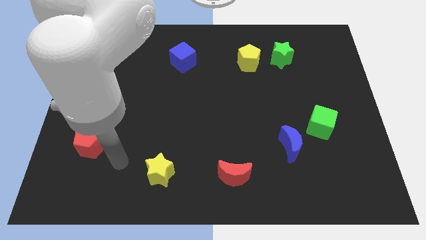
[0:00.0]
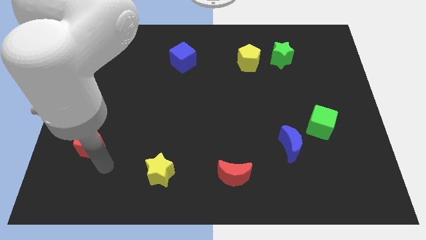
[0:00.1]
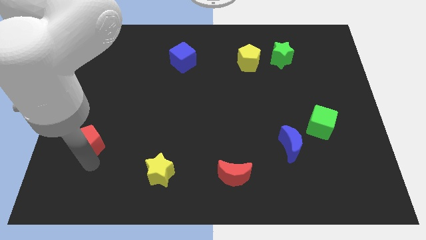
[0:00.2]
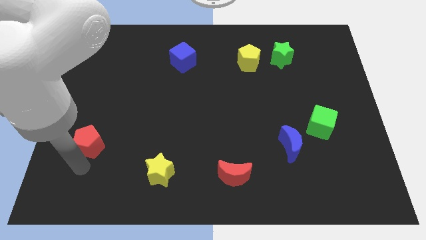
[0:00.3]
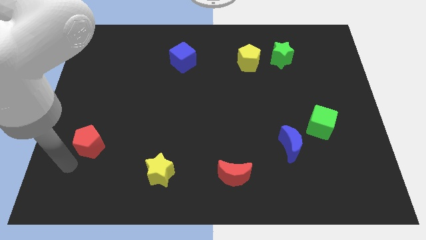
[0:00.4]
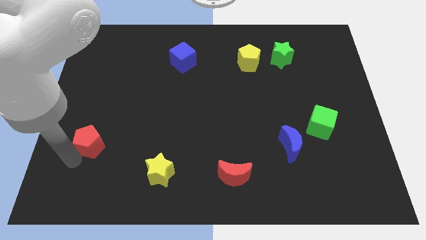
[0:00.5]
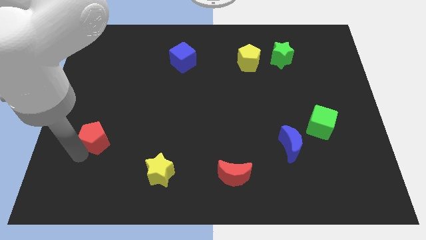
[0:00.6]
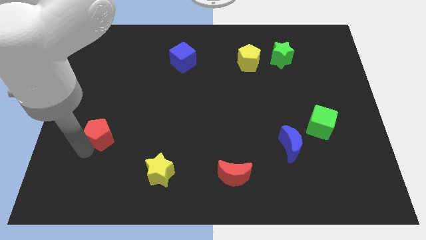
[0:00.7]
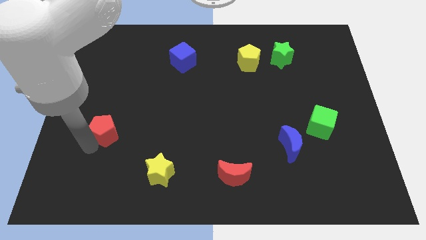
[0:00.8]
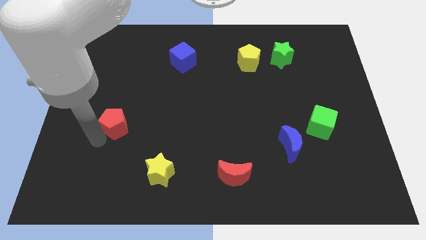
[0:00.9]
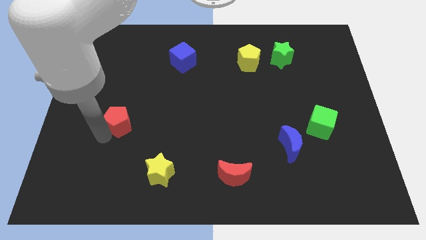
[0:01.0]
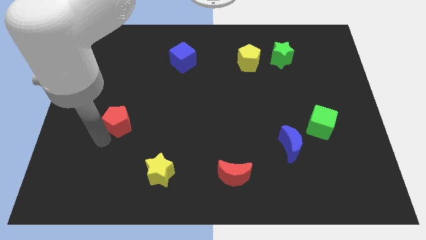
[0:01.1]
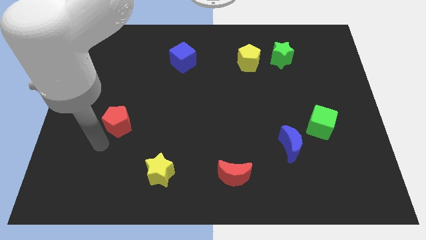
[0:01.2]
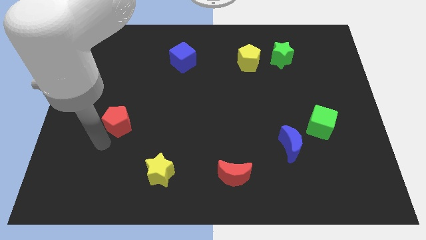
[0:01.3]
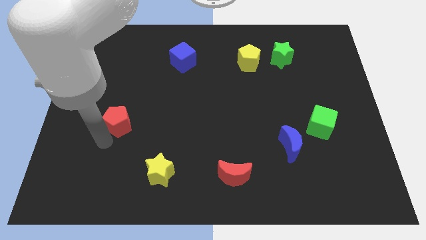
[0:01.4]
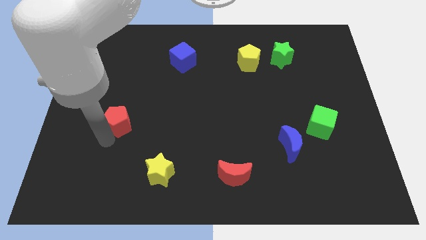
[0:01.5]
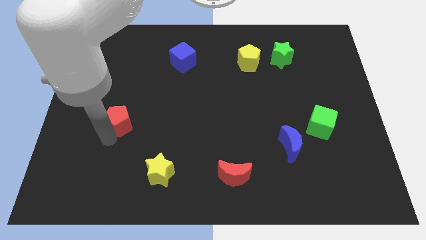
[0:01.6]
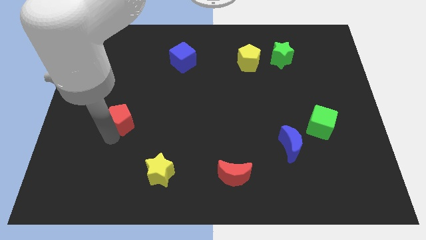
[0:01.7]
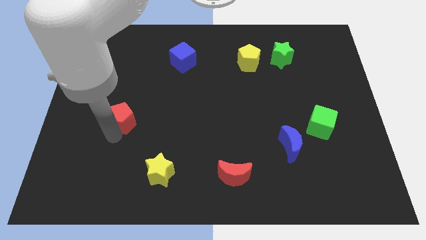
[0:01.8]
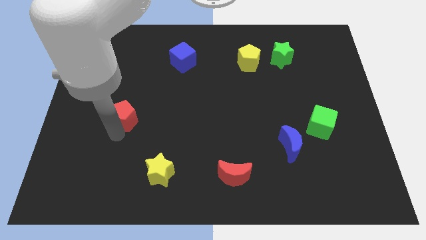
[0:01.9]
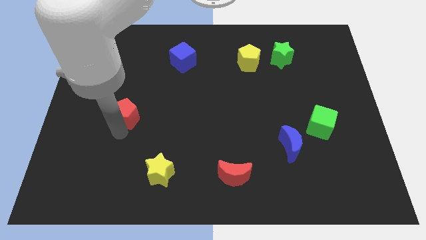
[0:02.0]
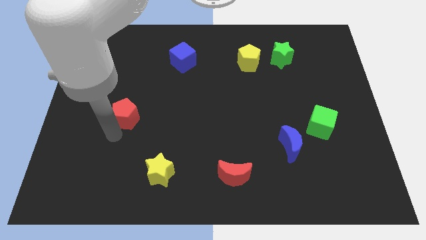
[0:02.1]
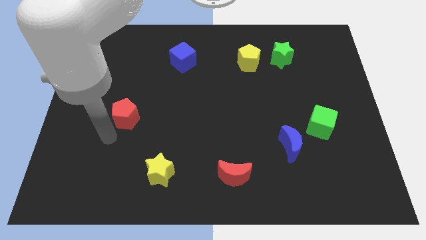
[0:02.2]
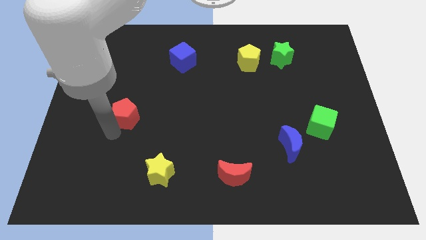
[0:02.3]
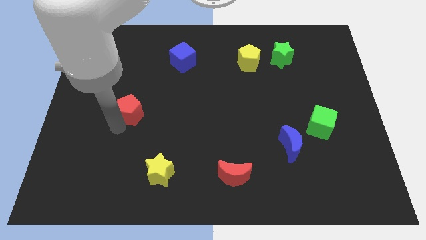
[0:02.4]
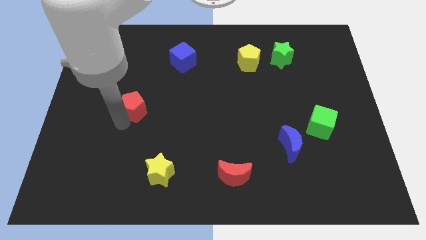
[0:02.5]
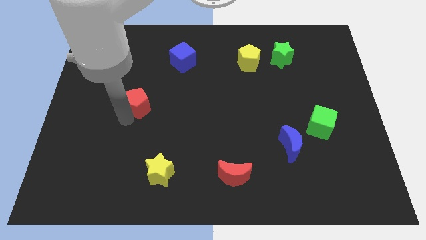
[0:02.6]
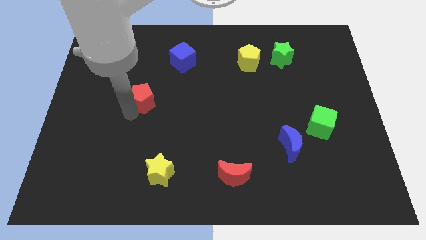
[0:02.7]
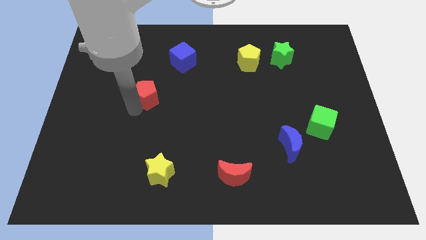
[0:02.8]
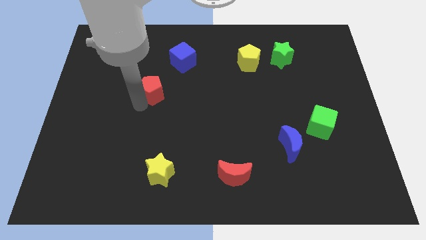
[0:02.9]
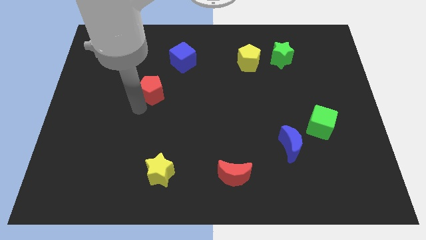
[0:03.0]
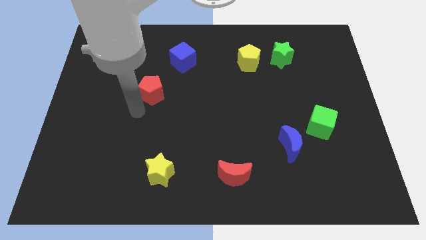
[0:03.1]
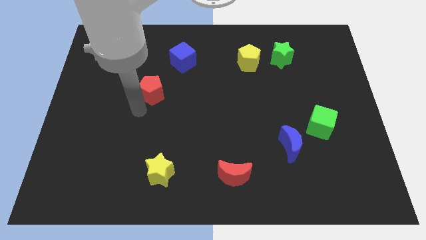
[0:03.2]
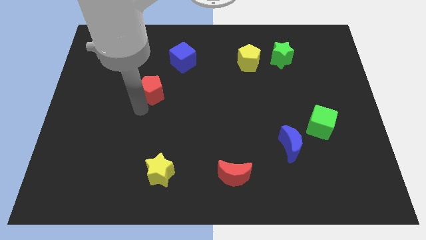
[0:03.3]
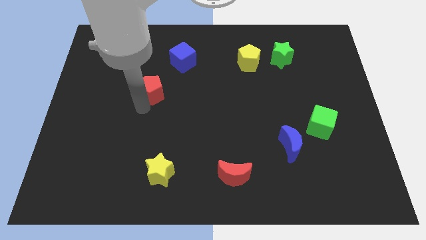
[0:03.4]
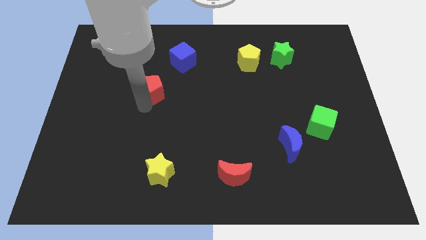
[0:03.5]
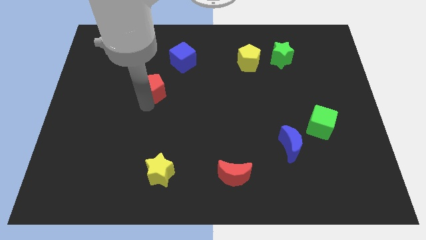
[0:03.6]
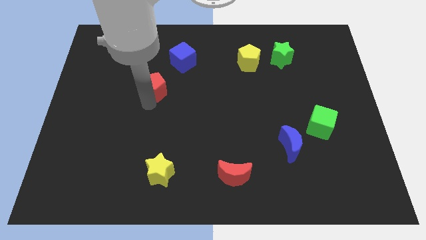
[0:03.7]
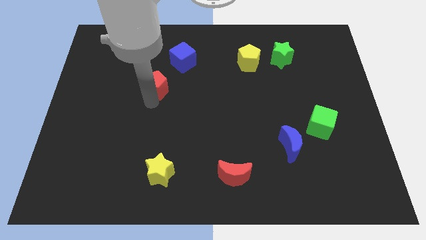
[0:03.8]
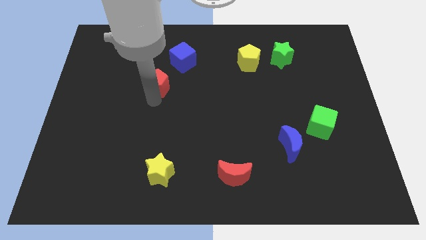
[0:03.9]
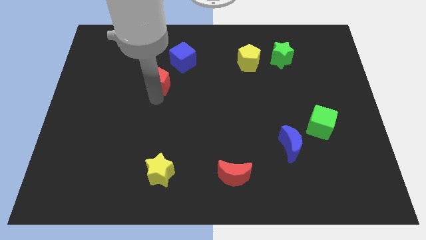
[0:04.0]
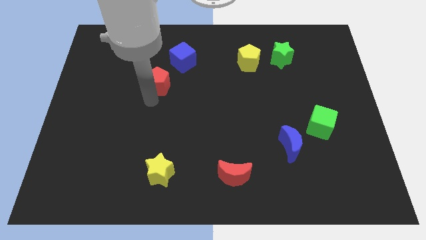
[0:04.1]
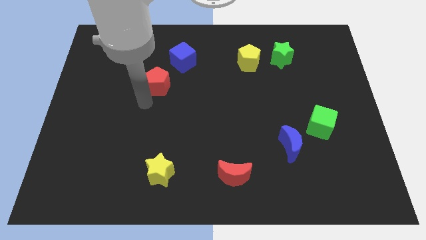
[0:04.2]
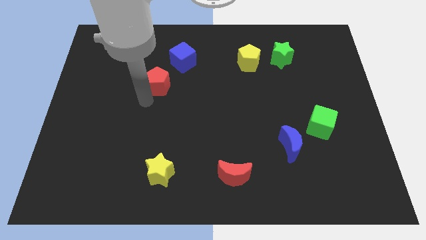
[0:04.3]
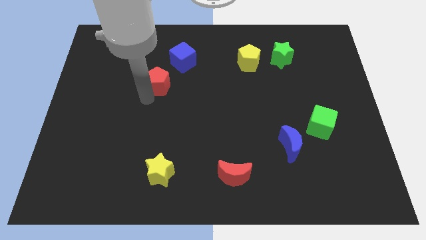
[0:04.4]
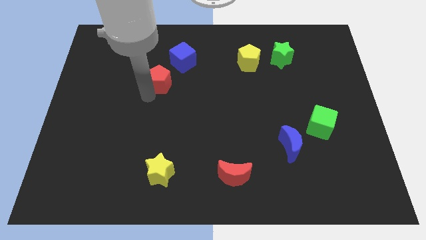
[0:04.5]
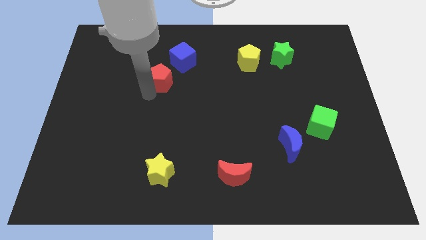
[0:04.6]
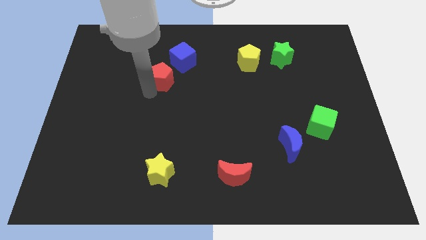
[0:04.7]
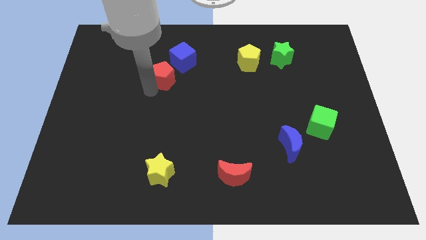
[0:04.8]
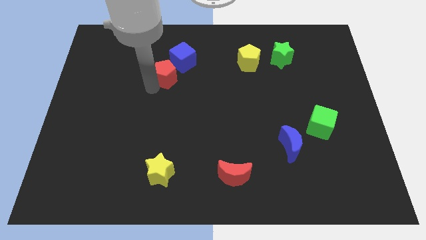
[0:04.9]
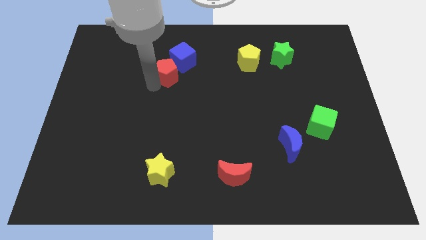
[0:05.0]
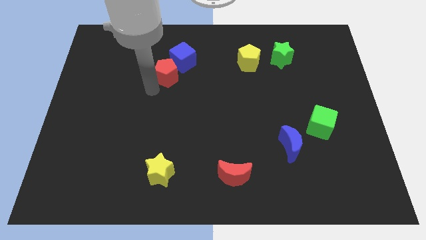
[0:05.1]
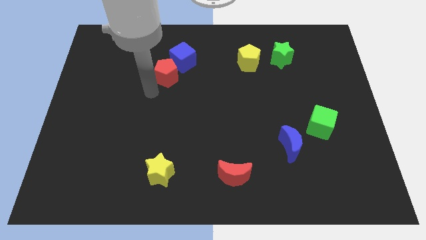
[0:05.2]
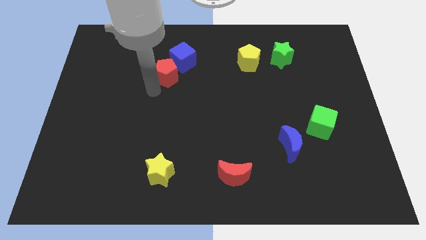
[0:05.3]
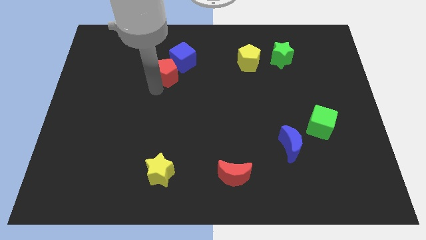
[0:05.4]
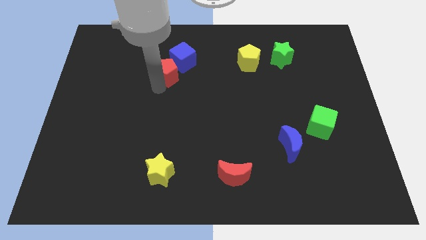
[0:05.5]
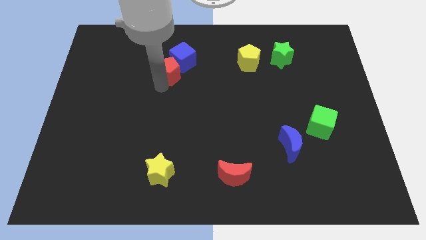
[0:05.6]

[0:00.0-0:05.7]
push the red pentagon next to the blue cube

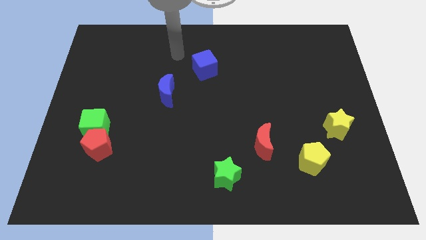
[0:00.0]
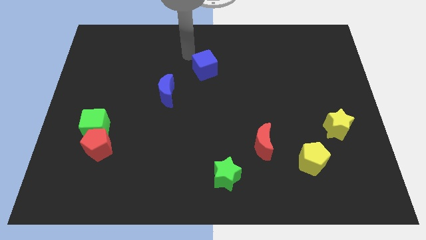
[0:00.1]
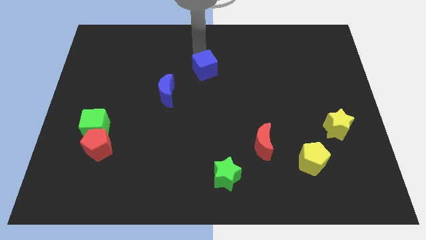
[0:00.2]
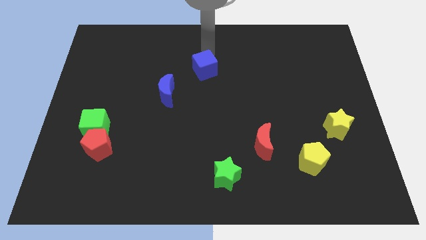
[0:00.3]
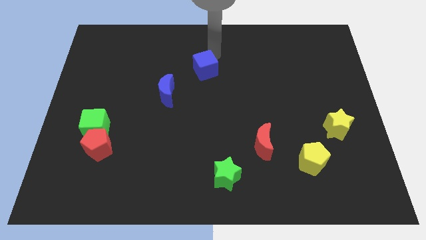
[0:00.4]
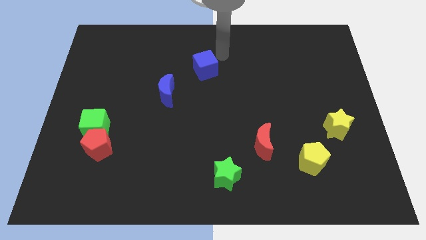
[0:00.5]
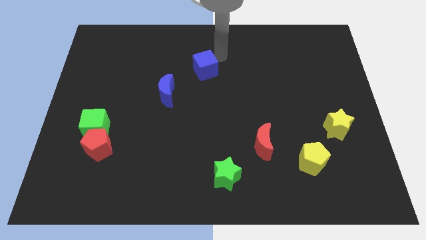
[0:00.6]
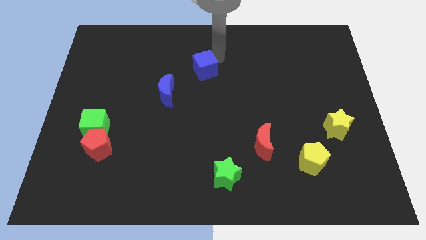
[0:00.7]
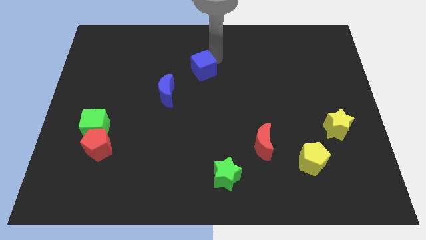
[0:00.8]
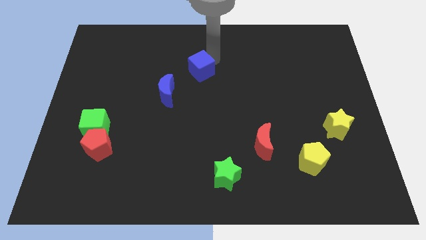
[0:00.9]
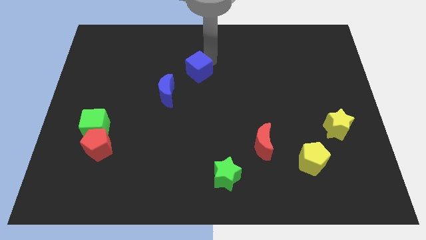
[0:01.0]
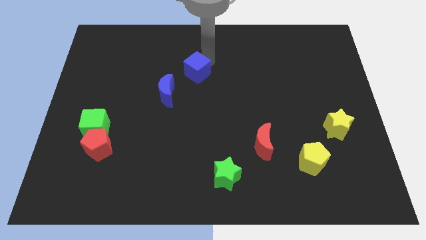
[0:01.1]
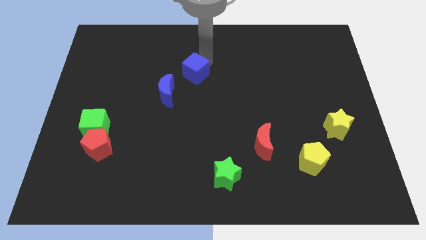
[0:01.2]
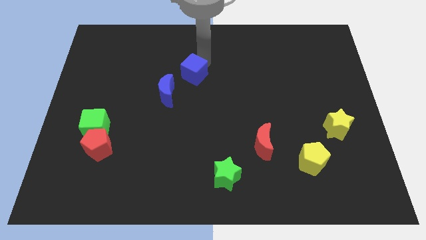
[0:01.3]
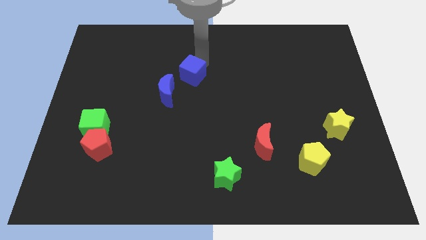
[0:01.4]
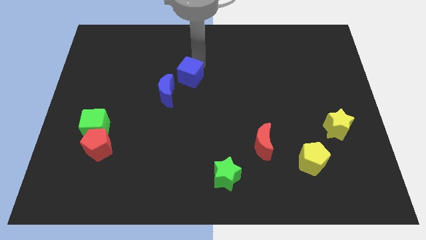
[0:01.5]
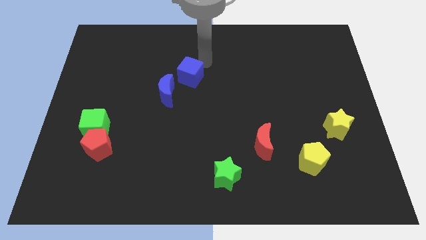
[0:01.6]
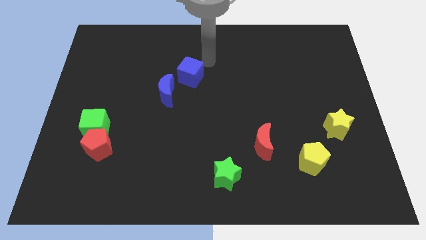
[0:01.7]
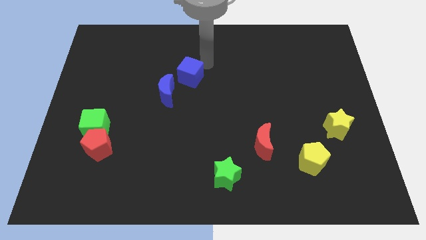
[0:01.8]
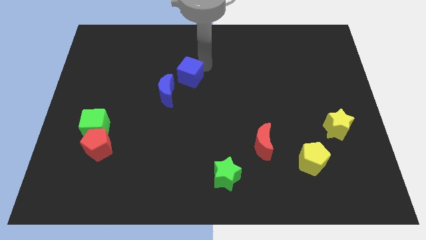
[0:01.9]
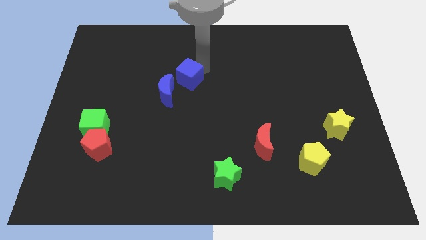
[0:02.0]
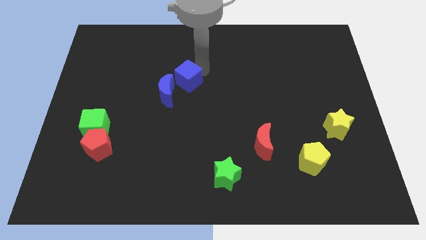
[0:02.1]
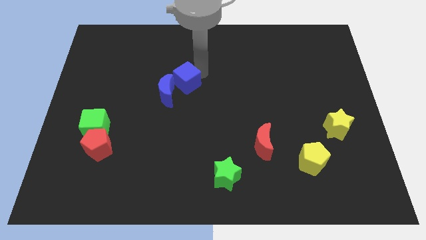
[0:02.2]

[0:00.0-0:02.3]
push the blue cube to the blue moon
